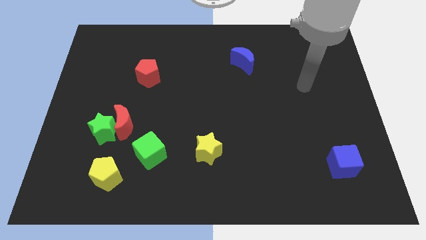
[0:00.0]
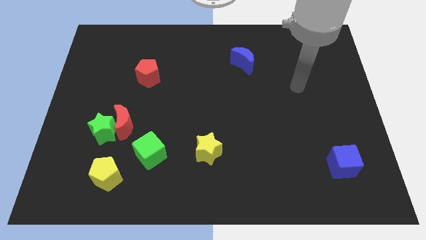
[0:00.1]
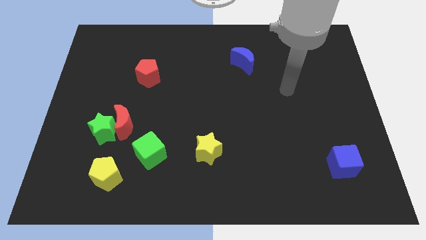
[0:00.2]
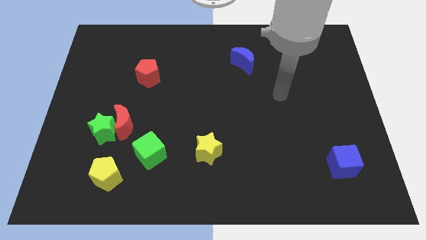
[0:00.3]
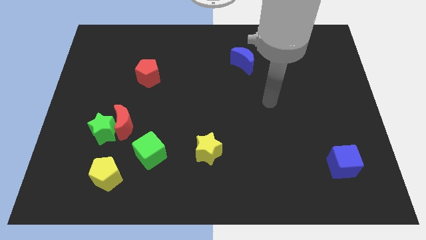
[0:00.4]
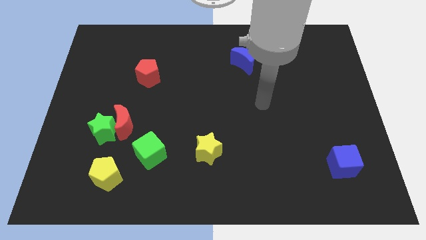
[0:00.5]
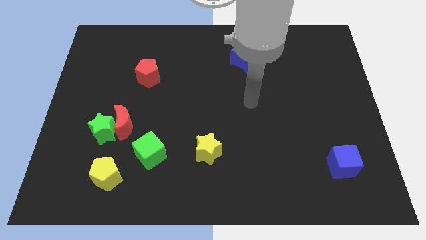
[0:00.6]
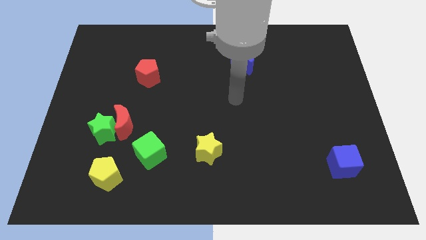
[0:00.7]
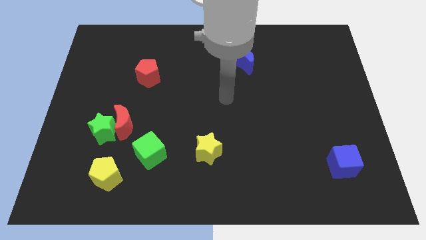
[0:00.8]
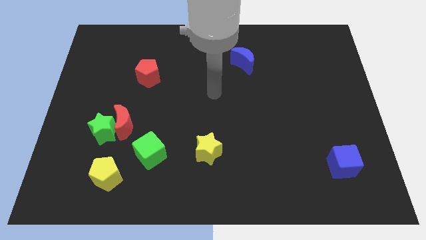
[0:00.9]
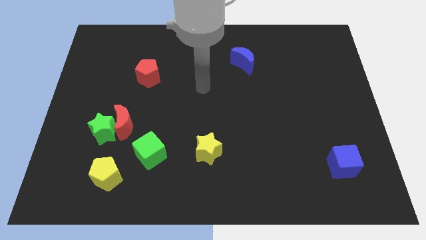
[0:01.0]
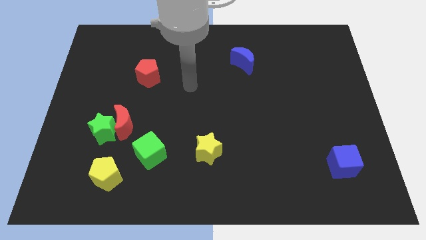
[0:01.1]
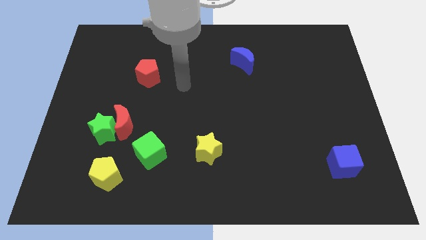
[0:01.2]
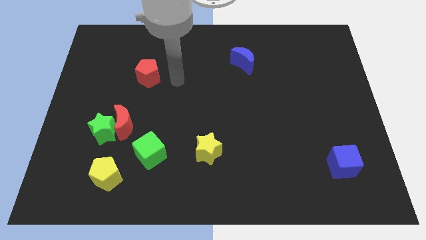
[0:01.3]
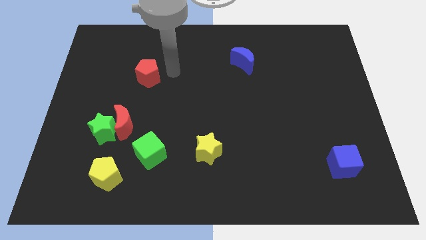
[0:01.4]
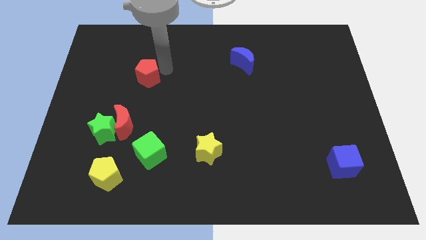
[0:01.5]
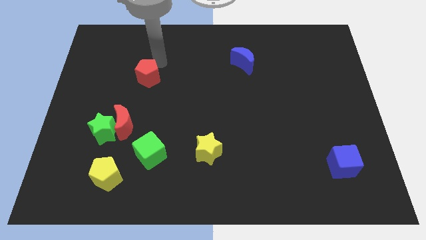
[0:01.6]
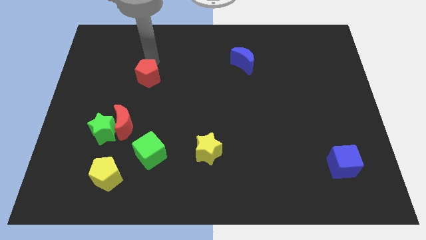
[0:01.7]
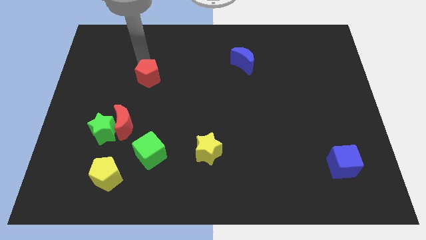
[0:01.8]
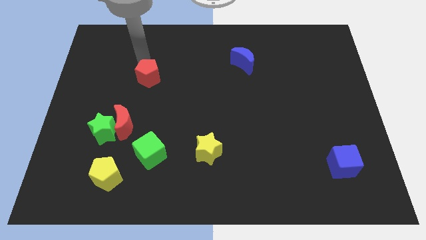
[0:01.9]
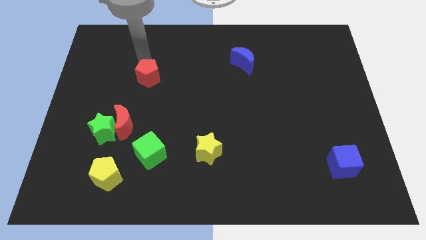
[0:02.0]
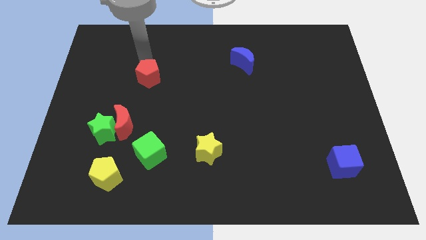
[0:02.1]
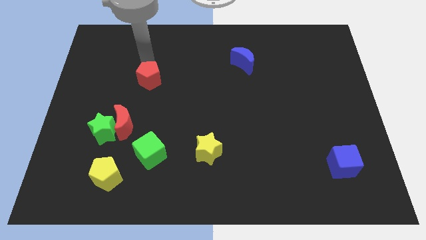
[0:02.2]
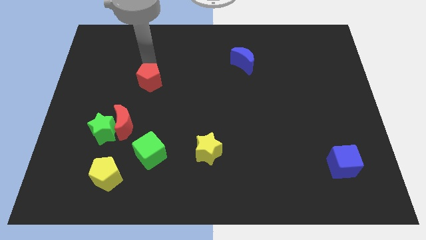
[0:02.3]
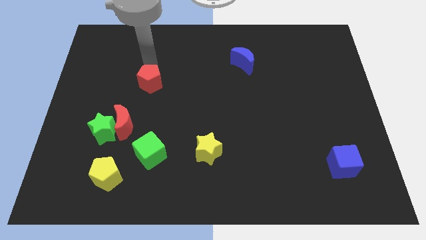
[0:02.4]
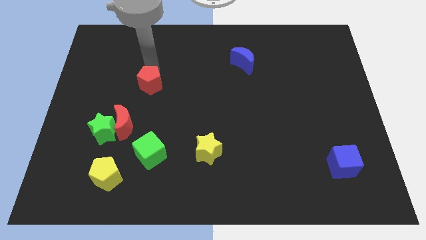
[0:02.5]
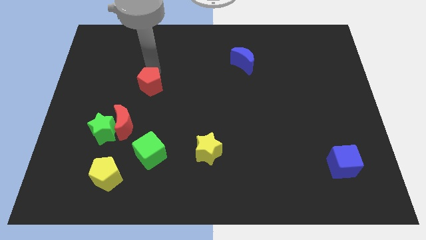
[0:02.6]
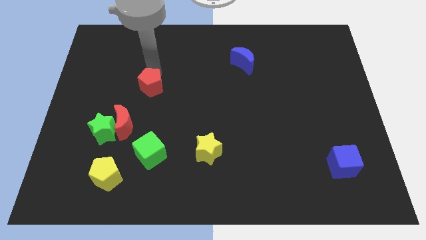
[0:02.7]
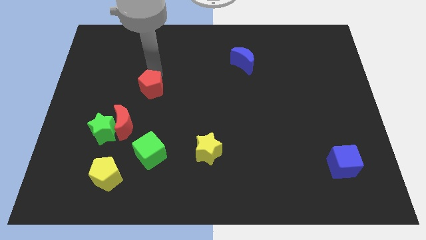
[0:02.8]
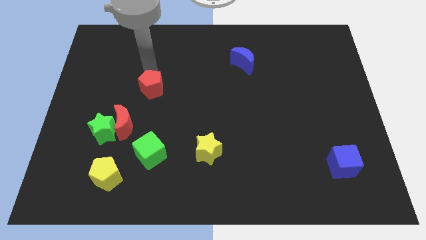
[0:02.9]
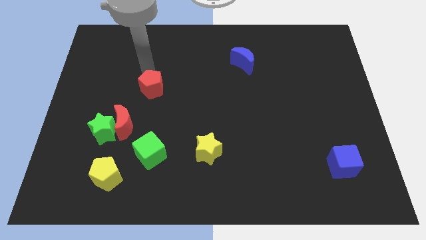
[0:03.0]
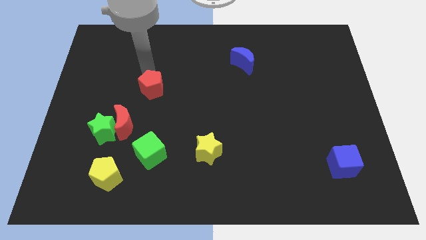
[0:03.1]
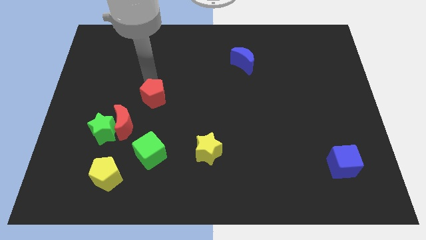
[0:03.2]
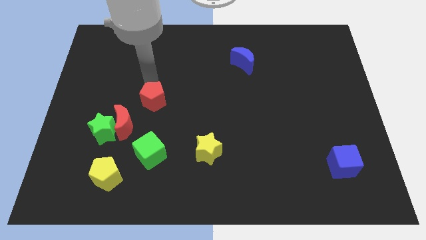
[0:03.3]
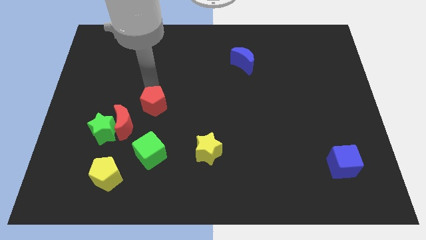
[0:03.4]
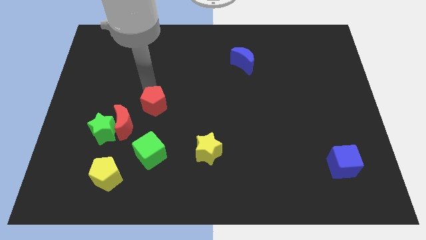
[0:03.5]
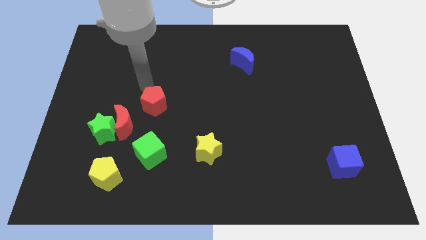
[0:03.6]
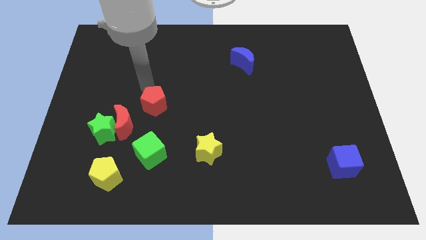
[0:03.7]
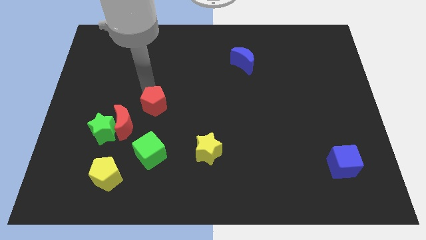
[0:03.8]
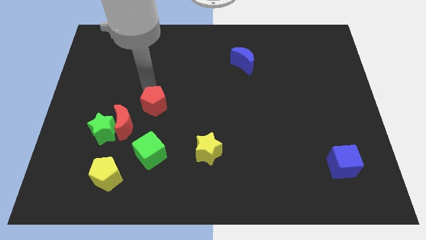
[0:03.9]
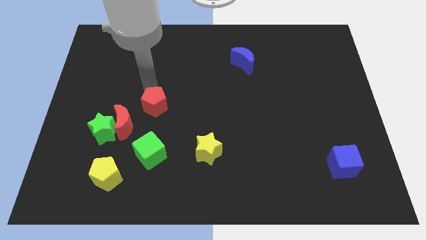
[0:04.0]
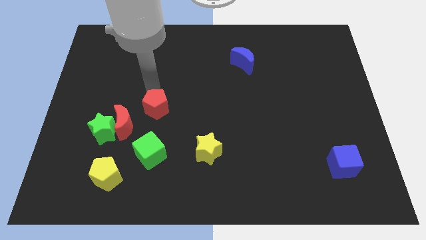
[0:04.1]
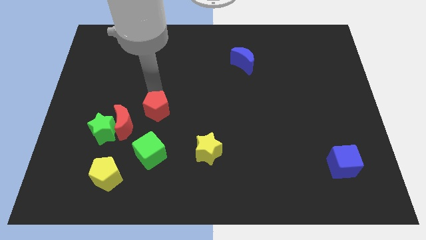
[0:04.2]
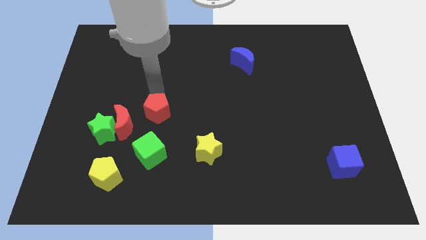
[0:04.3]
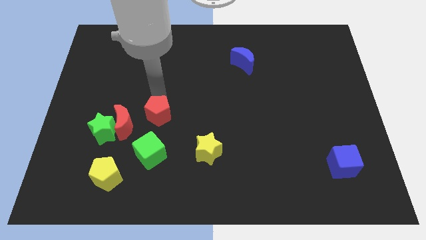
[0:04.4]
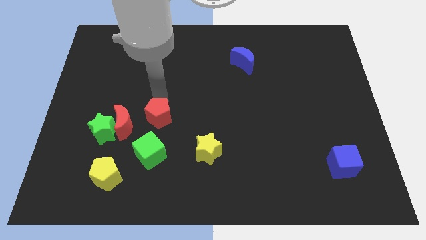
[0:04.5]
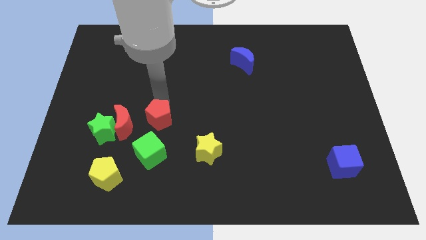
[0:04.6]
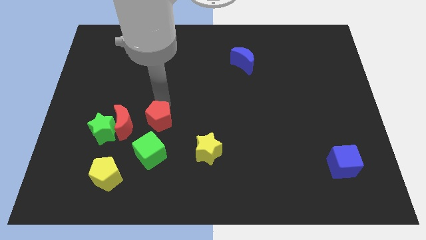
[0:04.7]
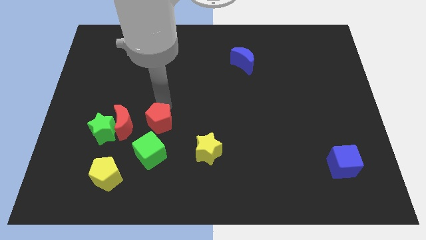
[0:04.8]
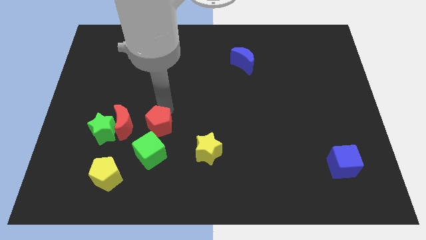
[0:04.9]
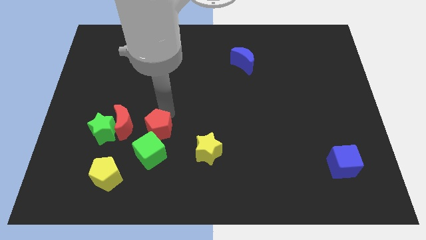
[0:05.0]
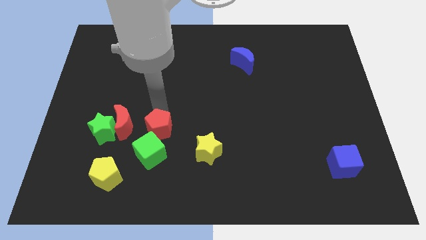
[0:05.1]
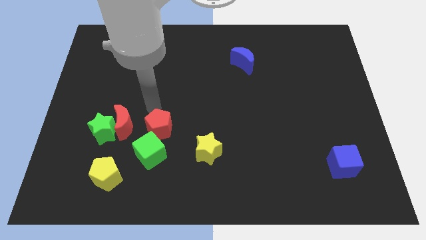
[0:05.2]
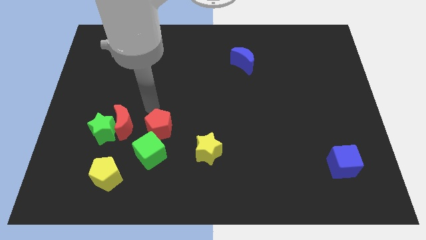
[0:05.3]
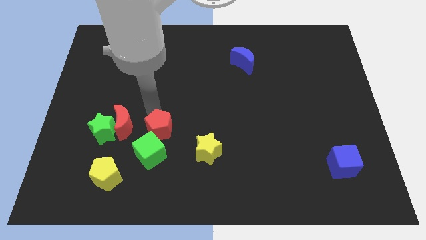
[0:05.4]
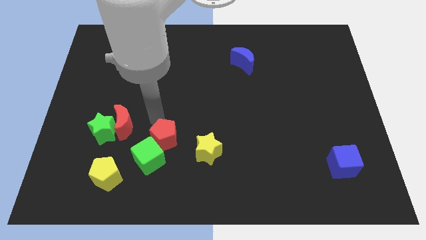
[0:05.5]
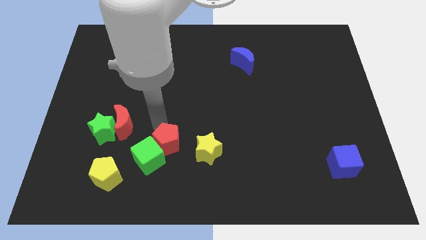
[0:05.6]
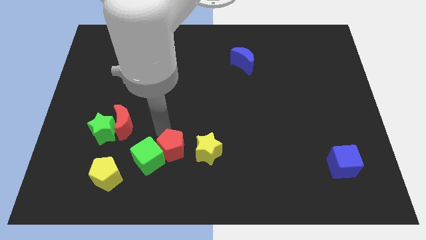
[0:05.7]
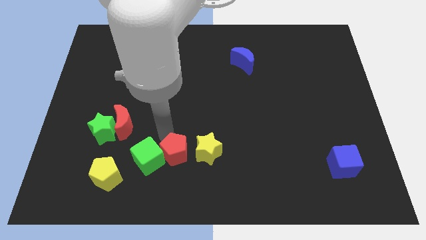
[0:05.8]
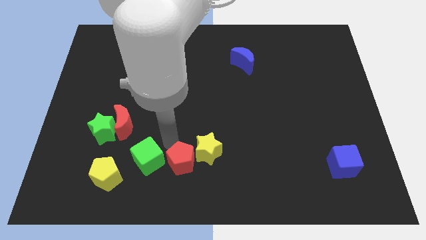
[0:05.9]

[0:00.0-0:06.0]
put the red pentagon to the bottom
